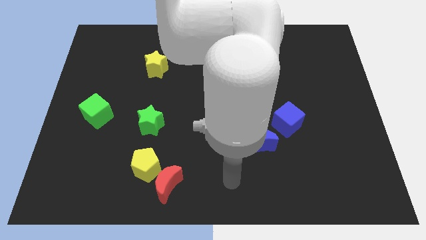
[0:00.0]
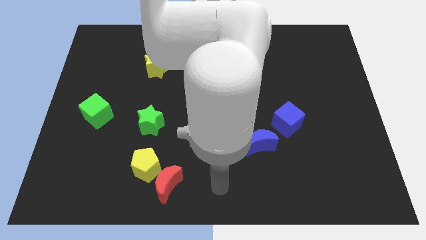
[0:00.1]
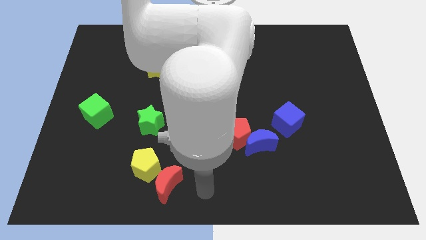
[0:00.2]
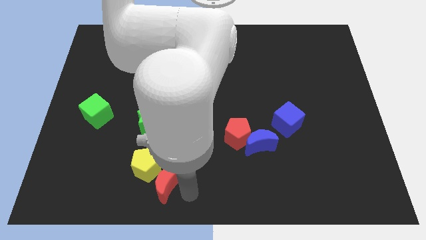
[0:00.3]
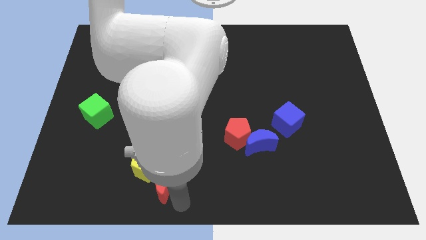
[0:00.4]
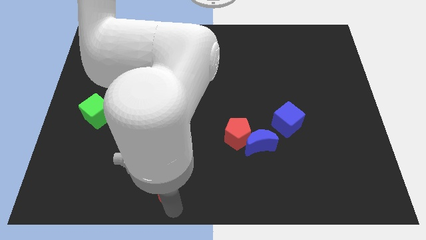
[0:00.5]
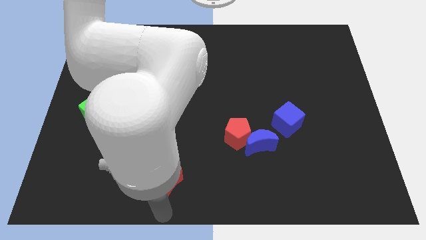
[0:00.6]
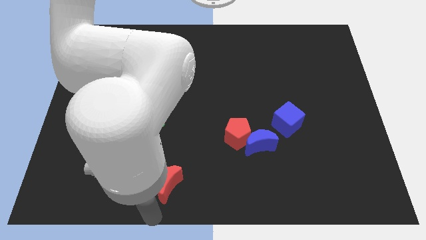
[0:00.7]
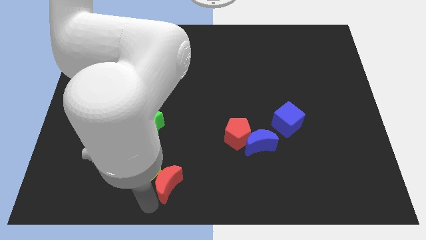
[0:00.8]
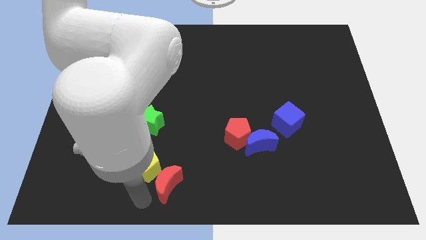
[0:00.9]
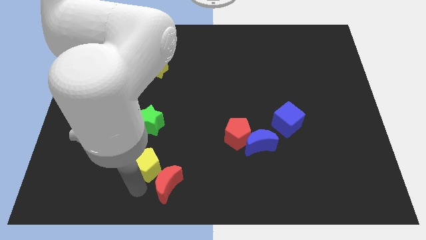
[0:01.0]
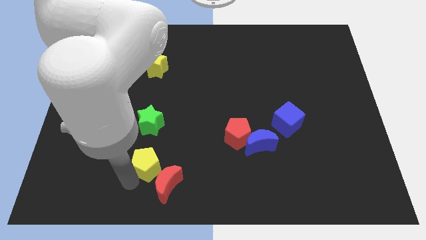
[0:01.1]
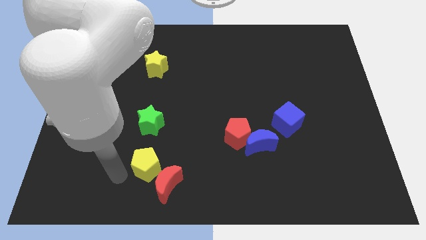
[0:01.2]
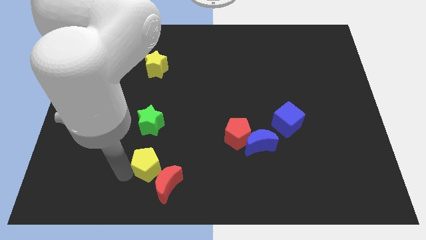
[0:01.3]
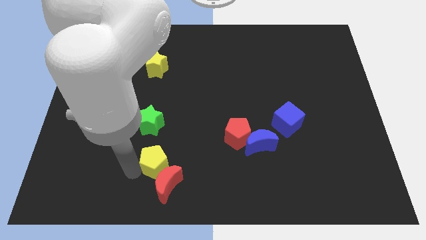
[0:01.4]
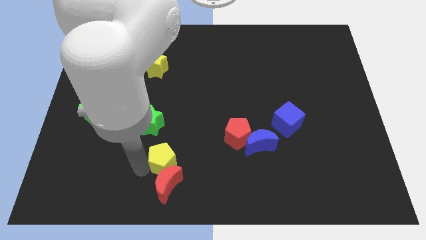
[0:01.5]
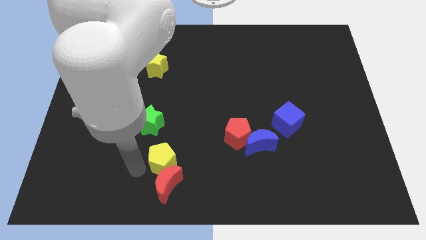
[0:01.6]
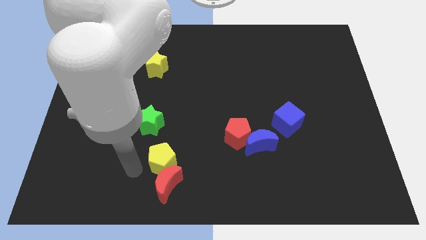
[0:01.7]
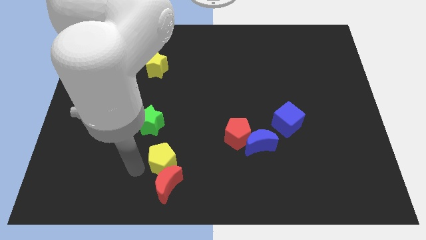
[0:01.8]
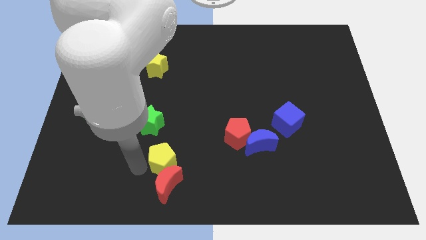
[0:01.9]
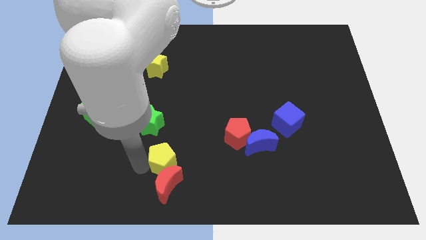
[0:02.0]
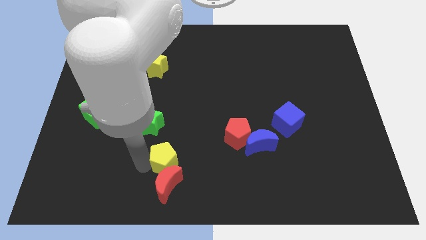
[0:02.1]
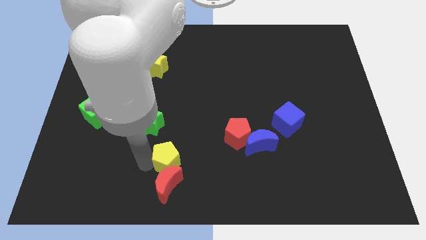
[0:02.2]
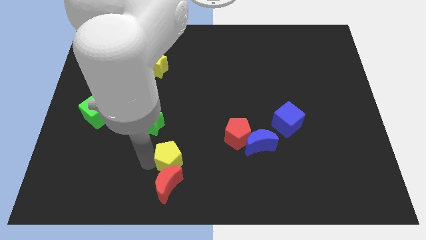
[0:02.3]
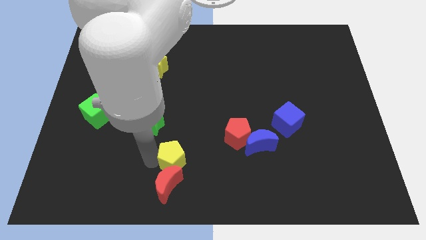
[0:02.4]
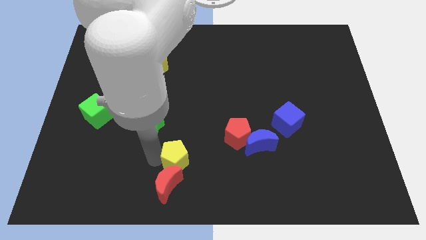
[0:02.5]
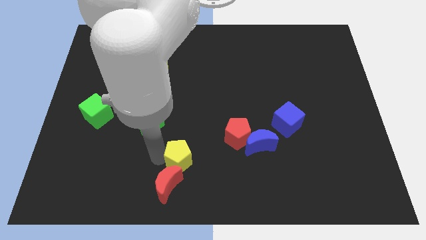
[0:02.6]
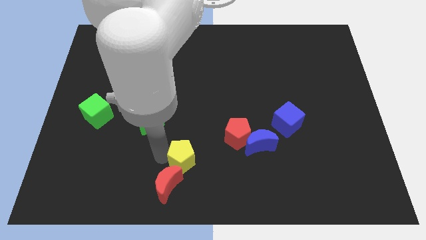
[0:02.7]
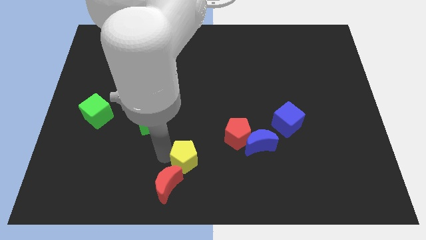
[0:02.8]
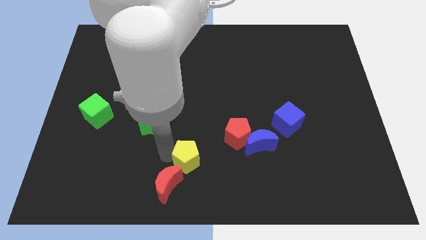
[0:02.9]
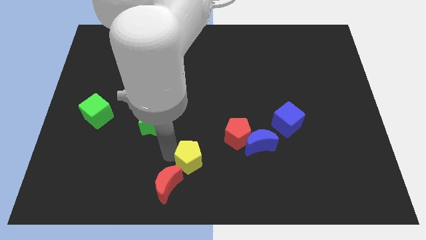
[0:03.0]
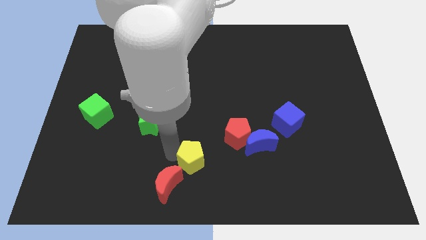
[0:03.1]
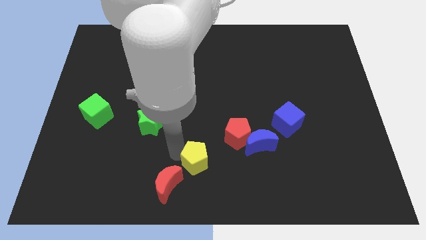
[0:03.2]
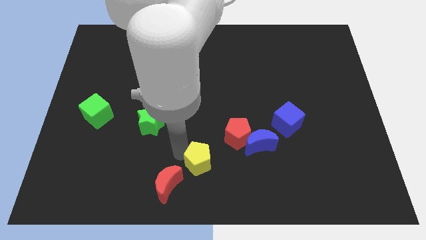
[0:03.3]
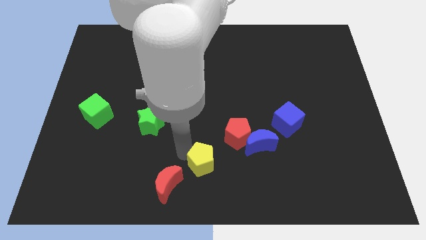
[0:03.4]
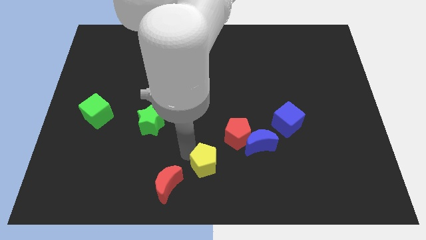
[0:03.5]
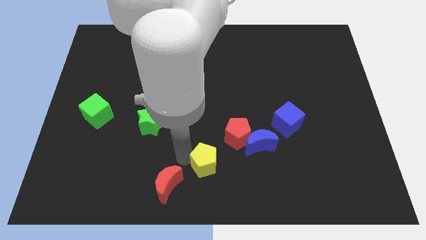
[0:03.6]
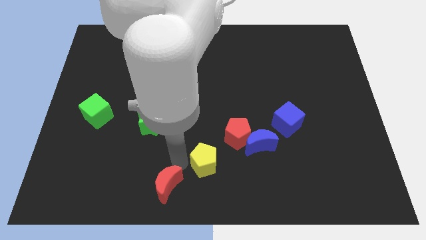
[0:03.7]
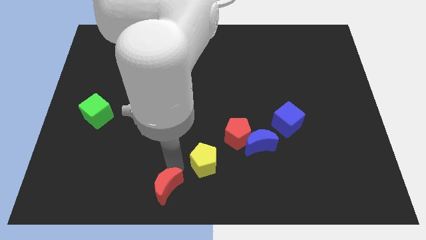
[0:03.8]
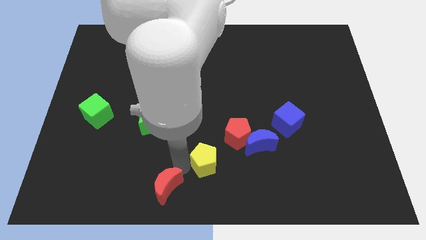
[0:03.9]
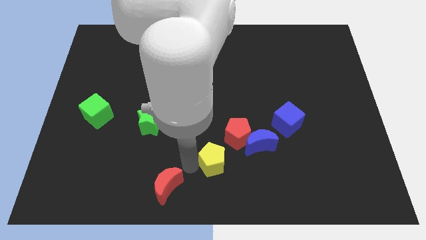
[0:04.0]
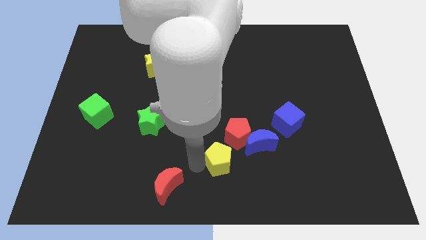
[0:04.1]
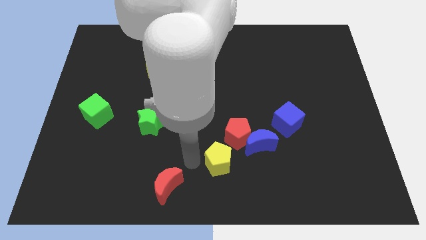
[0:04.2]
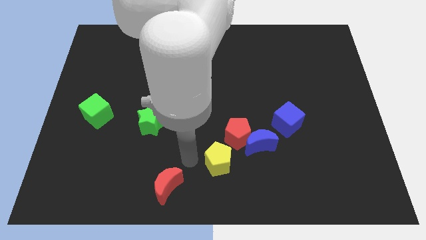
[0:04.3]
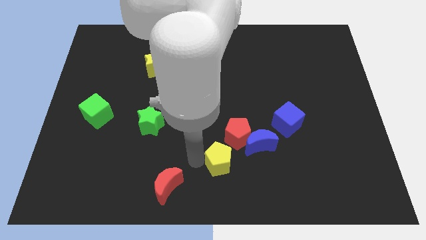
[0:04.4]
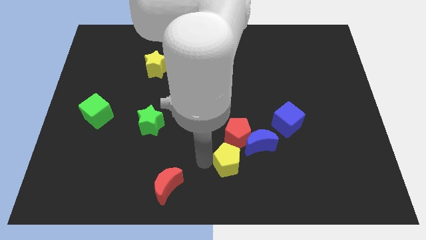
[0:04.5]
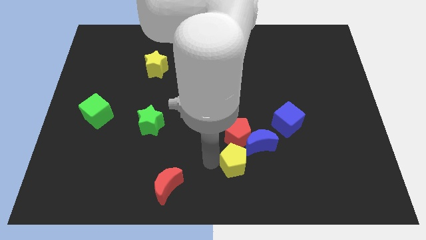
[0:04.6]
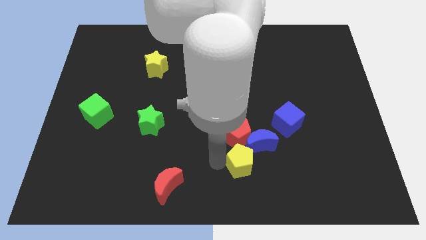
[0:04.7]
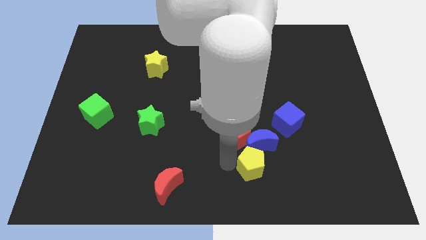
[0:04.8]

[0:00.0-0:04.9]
slide the yellow pentagon to the right

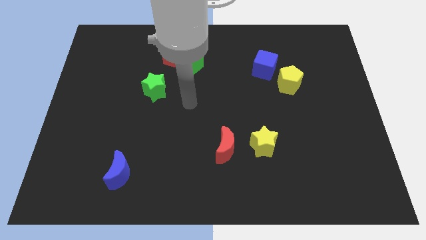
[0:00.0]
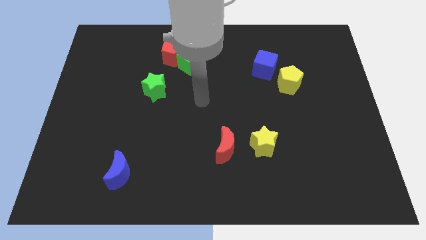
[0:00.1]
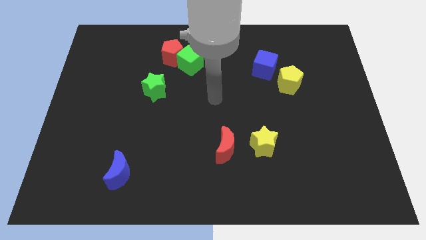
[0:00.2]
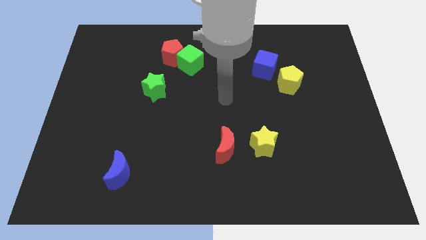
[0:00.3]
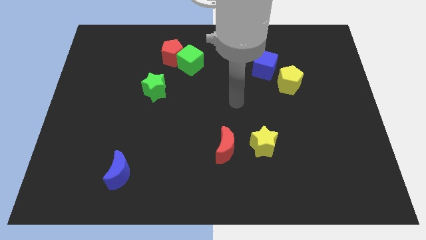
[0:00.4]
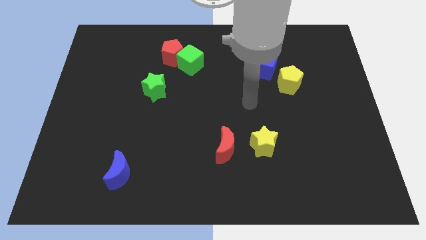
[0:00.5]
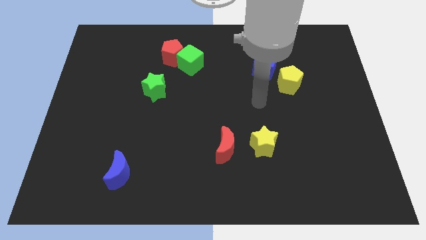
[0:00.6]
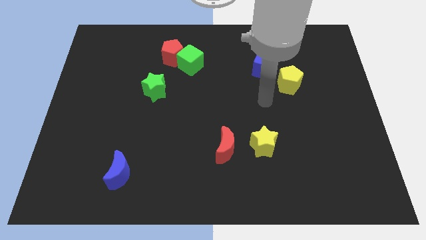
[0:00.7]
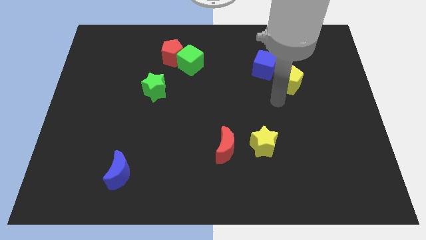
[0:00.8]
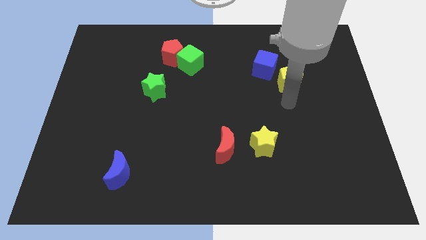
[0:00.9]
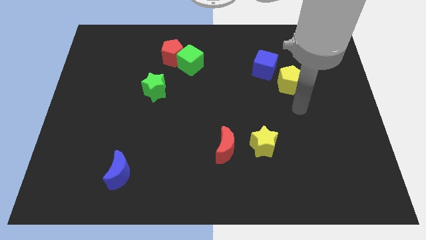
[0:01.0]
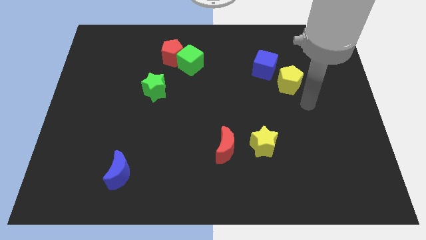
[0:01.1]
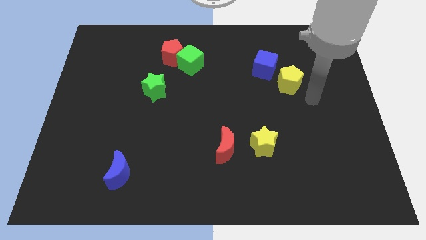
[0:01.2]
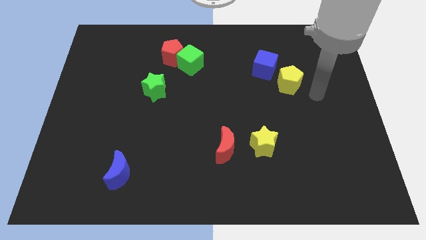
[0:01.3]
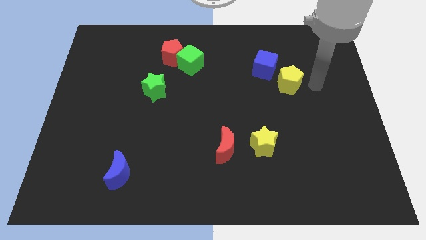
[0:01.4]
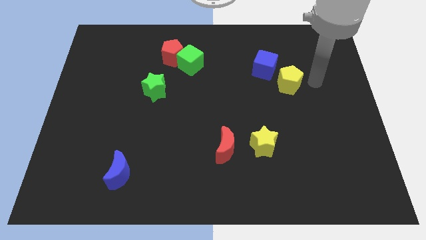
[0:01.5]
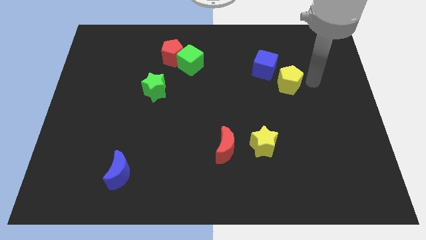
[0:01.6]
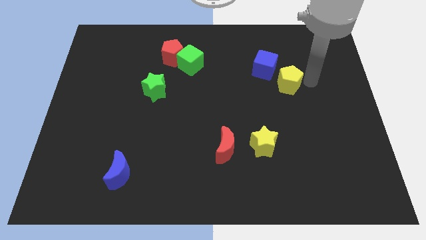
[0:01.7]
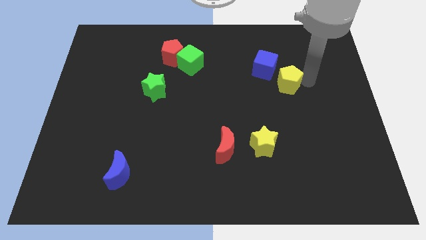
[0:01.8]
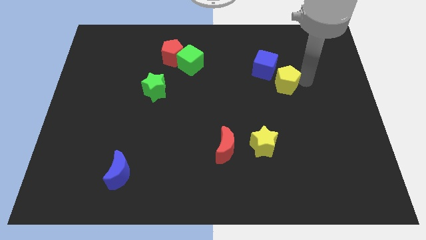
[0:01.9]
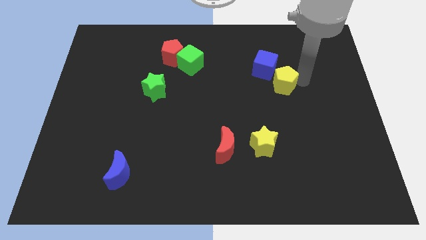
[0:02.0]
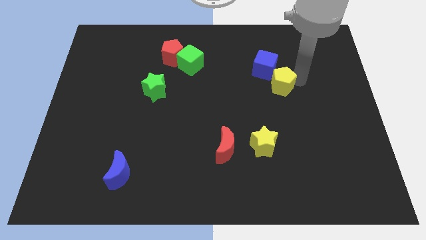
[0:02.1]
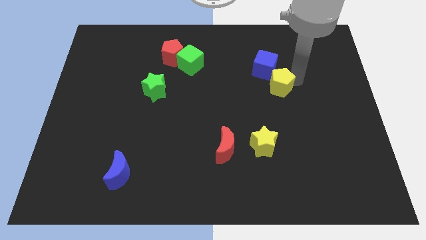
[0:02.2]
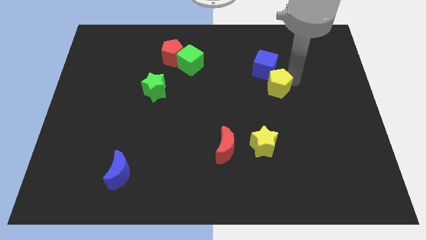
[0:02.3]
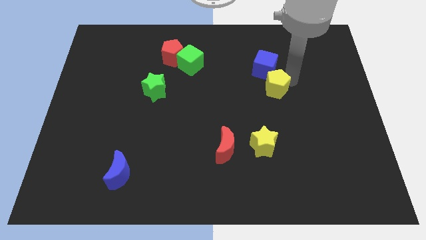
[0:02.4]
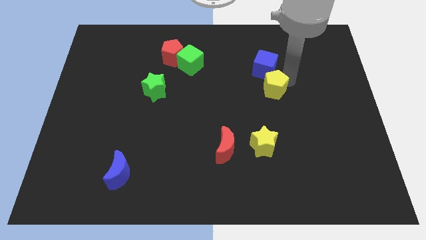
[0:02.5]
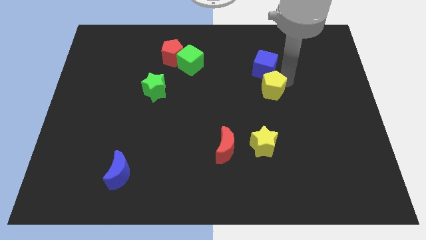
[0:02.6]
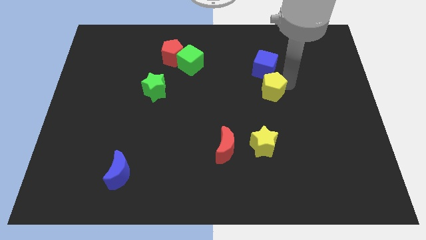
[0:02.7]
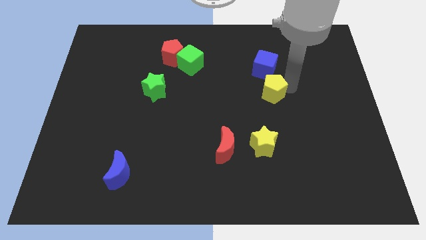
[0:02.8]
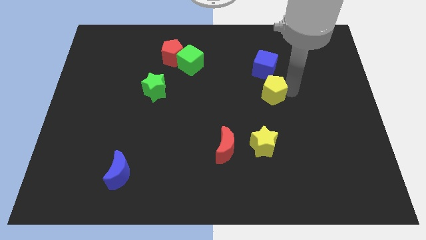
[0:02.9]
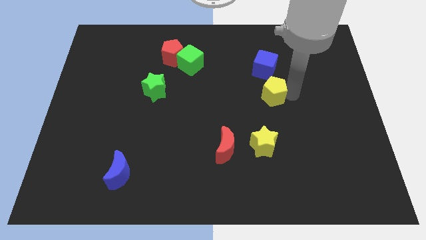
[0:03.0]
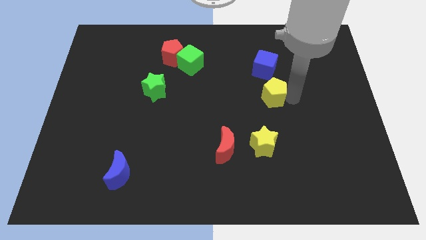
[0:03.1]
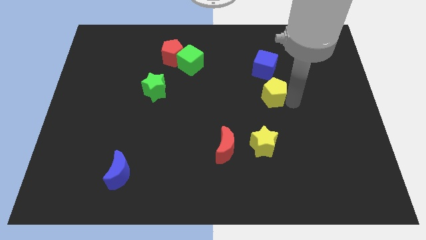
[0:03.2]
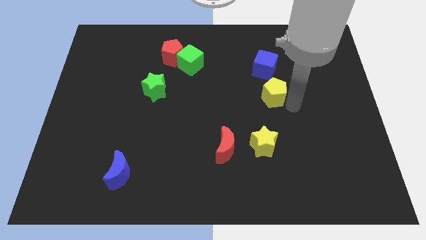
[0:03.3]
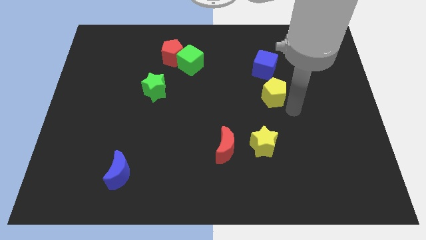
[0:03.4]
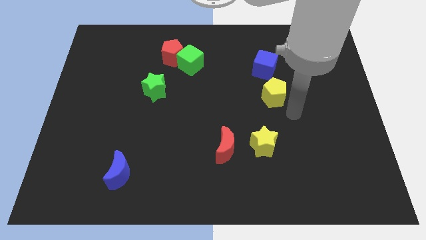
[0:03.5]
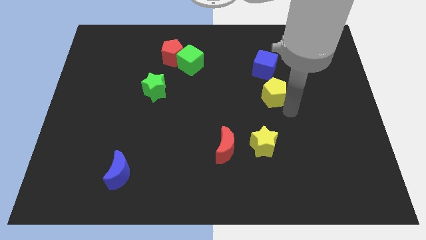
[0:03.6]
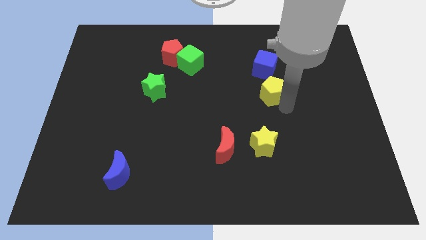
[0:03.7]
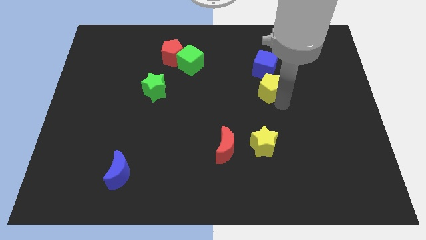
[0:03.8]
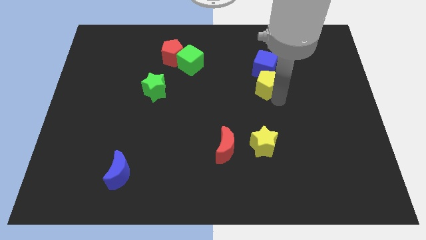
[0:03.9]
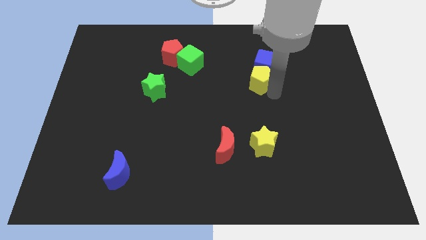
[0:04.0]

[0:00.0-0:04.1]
push the yellow pentagon to the left a little bit
